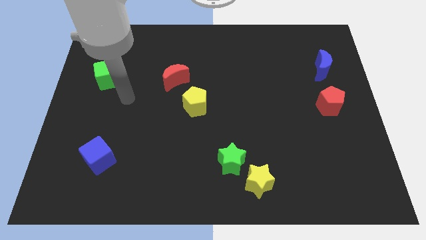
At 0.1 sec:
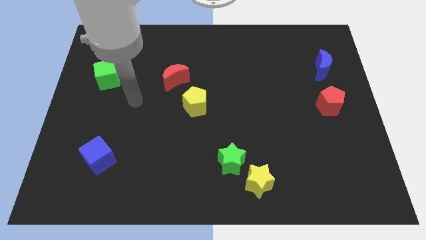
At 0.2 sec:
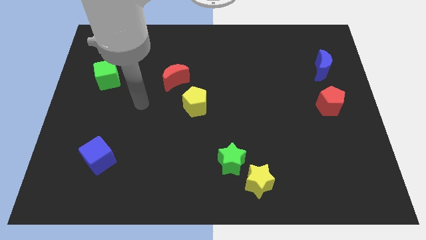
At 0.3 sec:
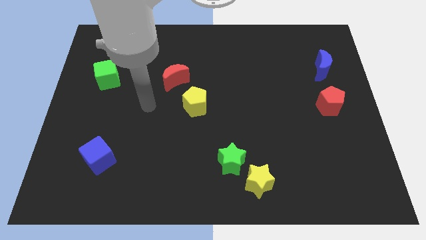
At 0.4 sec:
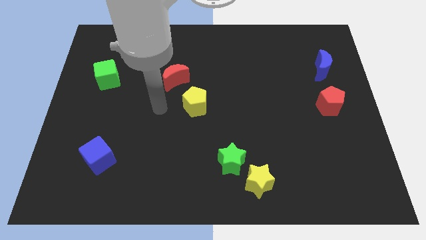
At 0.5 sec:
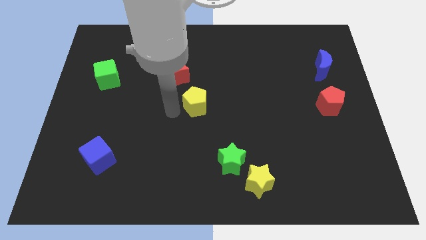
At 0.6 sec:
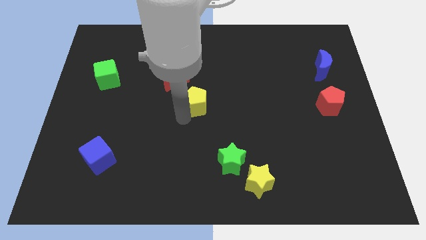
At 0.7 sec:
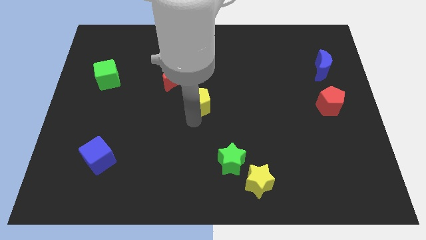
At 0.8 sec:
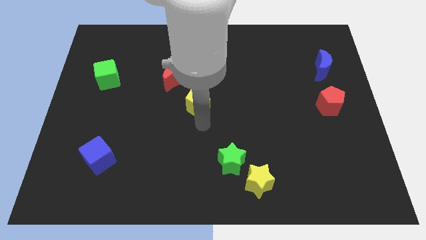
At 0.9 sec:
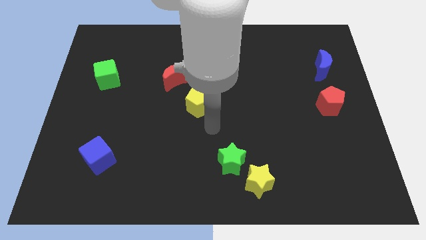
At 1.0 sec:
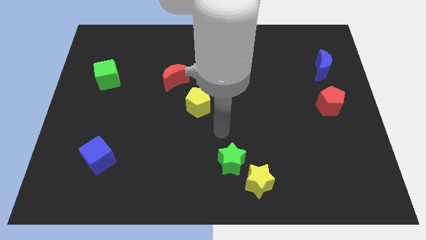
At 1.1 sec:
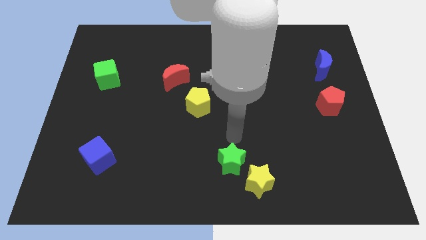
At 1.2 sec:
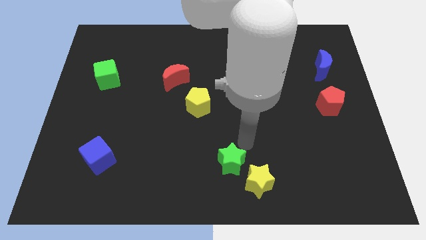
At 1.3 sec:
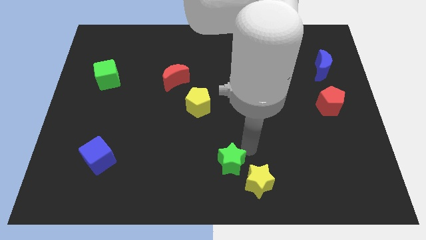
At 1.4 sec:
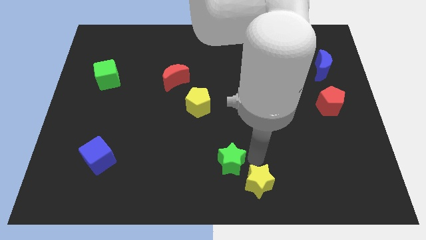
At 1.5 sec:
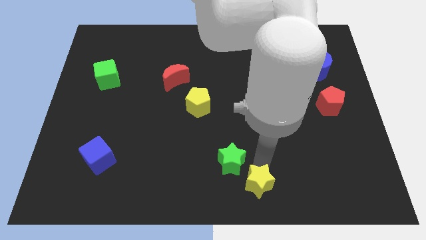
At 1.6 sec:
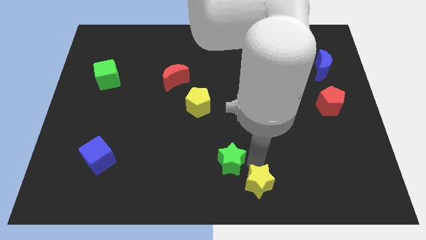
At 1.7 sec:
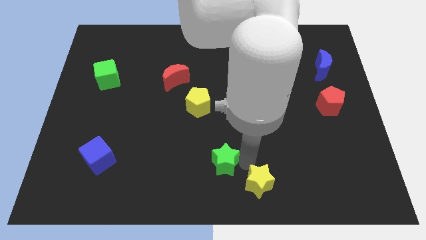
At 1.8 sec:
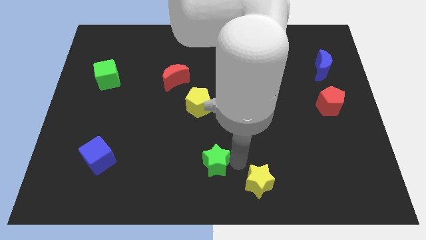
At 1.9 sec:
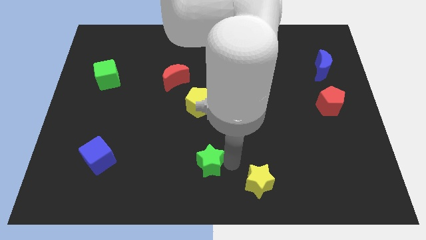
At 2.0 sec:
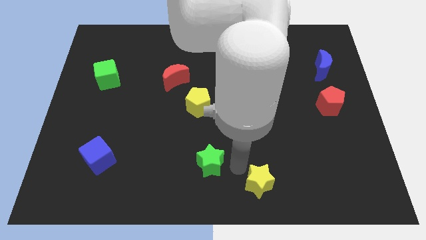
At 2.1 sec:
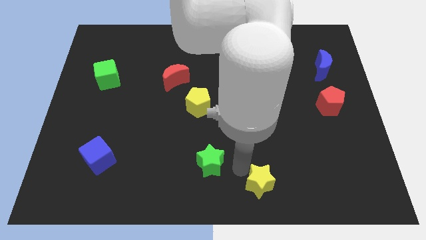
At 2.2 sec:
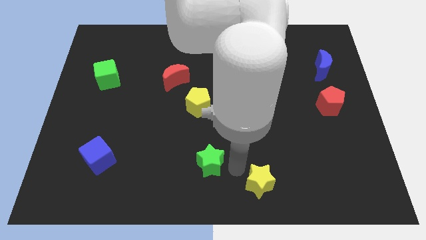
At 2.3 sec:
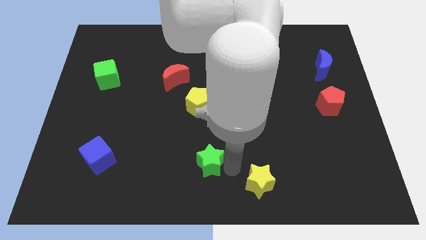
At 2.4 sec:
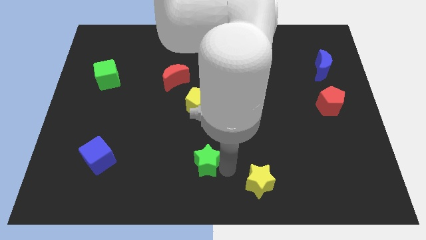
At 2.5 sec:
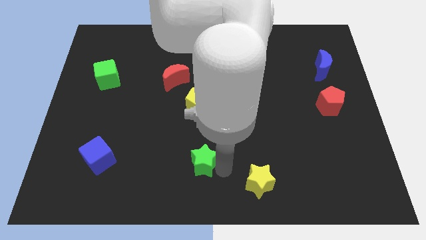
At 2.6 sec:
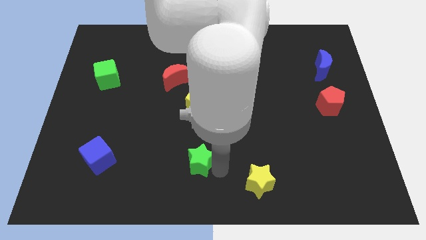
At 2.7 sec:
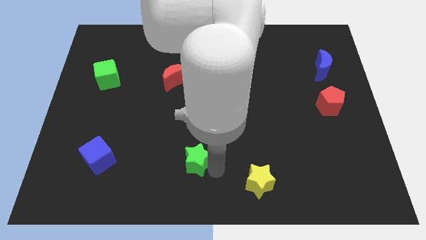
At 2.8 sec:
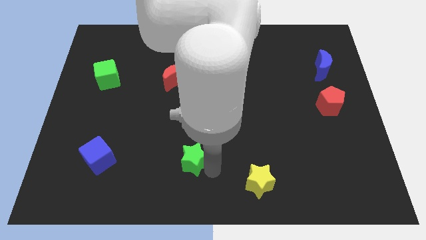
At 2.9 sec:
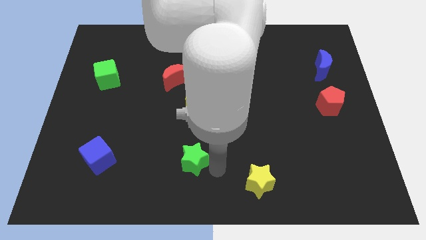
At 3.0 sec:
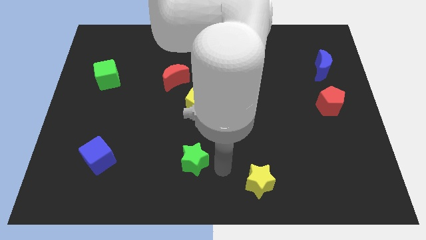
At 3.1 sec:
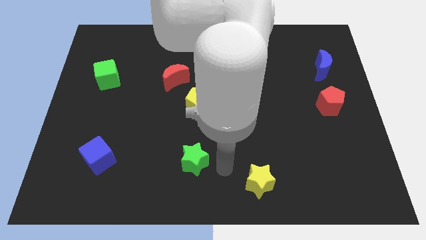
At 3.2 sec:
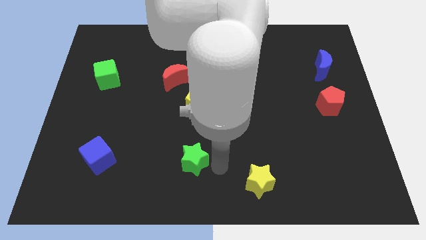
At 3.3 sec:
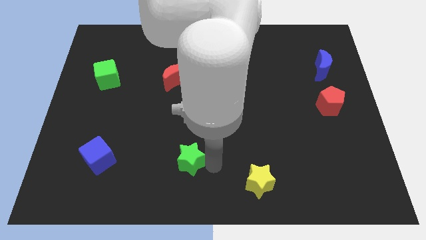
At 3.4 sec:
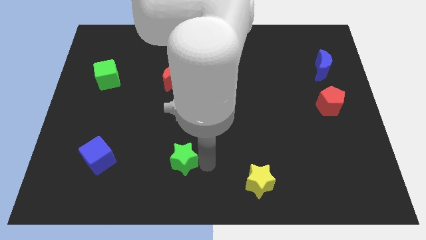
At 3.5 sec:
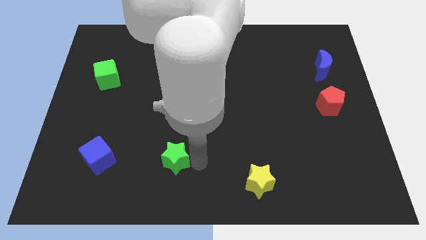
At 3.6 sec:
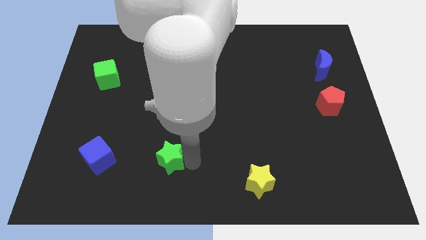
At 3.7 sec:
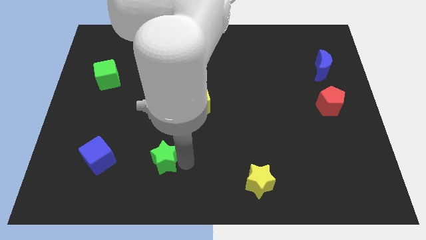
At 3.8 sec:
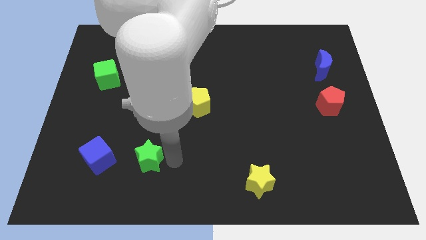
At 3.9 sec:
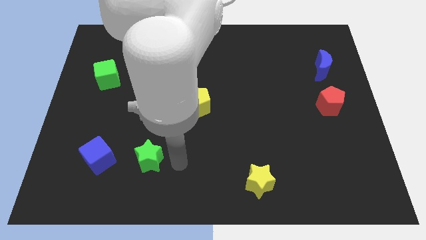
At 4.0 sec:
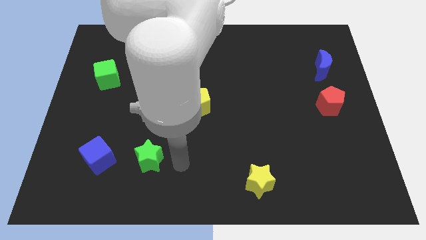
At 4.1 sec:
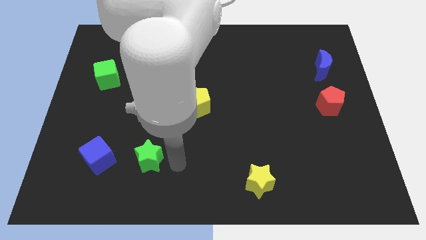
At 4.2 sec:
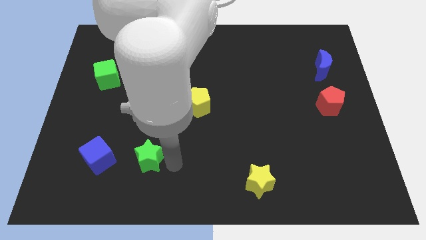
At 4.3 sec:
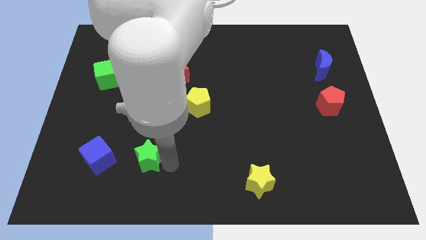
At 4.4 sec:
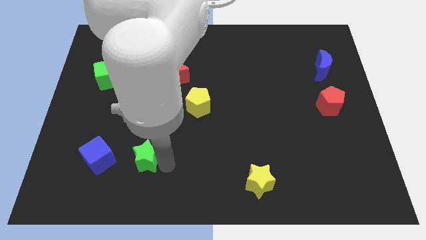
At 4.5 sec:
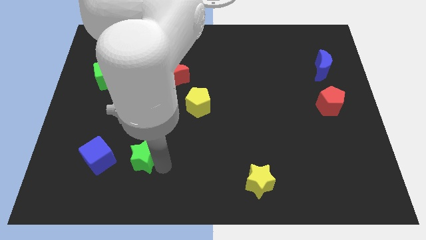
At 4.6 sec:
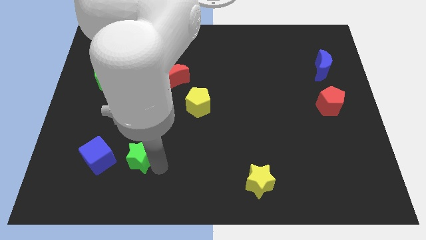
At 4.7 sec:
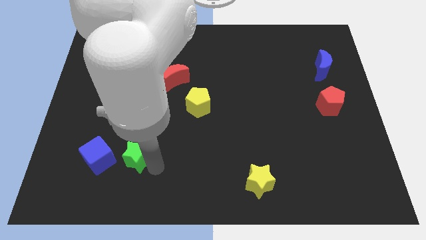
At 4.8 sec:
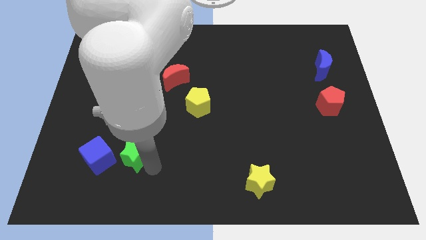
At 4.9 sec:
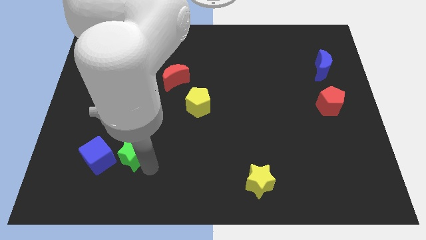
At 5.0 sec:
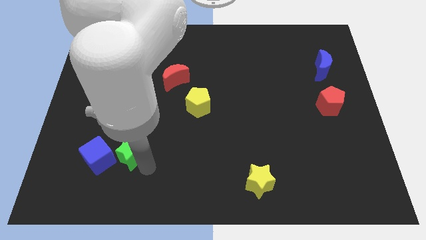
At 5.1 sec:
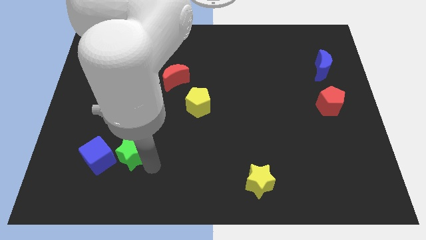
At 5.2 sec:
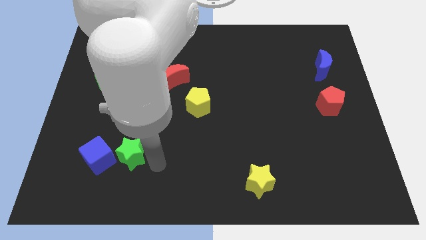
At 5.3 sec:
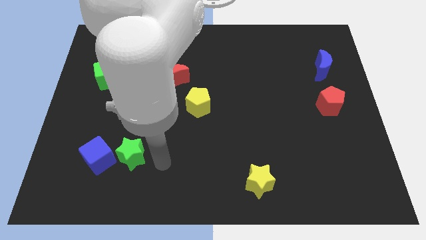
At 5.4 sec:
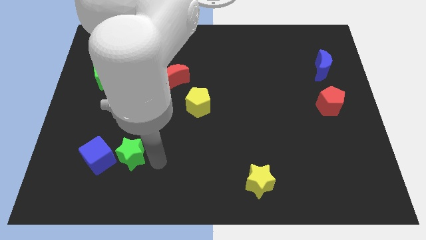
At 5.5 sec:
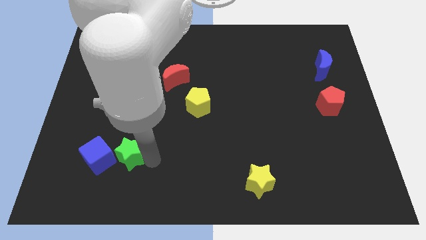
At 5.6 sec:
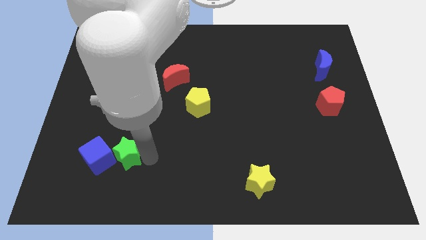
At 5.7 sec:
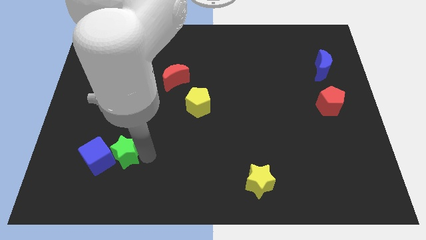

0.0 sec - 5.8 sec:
move the green star towards the blue cube

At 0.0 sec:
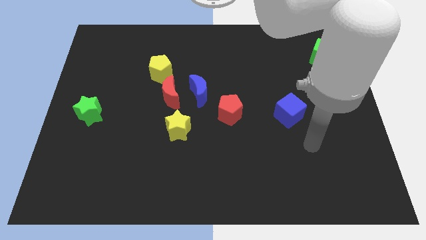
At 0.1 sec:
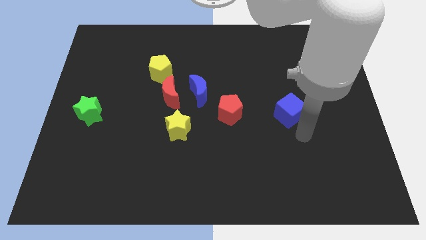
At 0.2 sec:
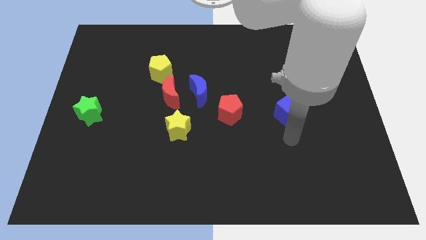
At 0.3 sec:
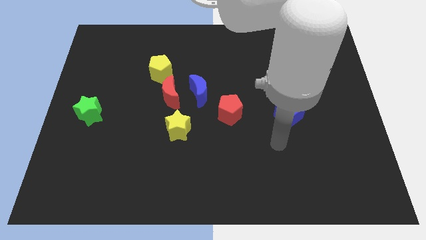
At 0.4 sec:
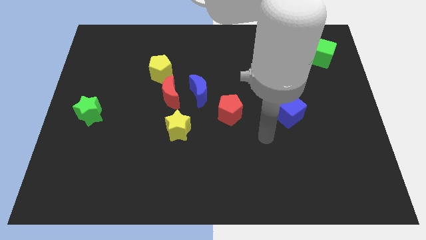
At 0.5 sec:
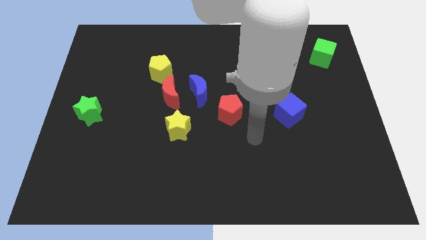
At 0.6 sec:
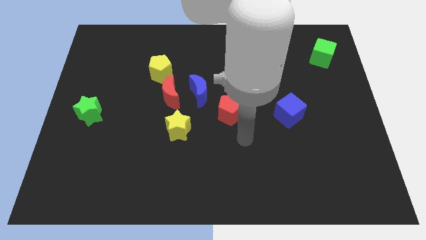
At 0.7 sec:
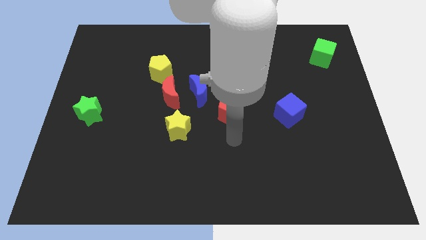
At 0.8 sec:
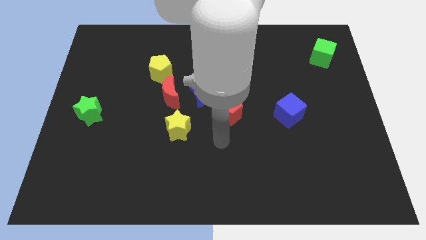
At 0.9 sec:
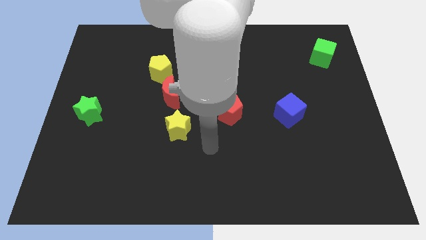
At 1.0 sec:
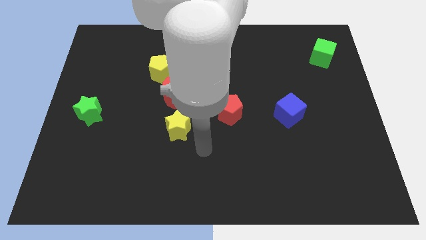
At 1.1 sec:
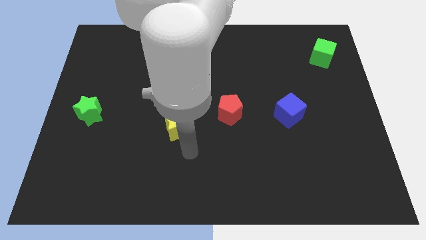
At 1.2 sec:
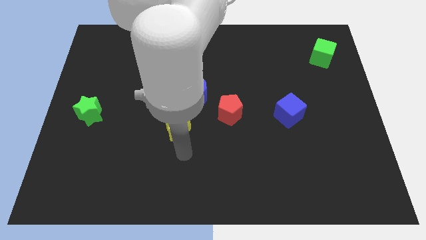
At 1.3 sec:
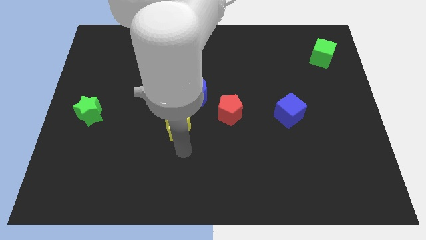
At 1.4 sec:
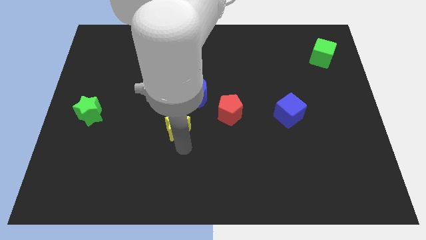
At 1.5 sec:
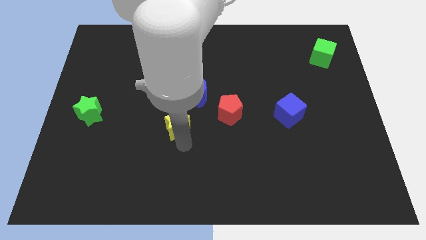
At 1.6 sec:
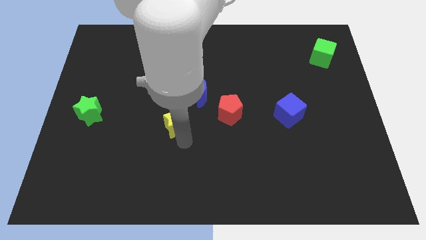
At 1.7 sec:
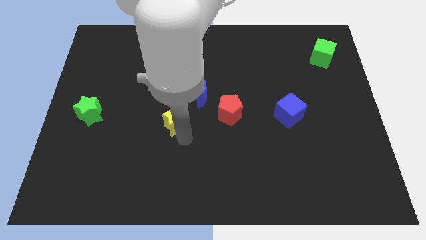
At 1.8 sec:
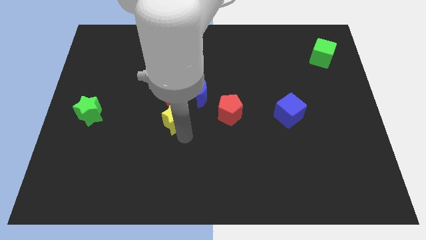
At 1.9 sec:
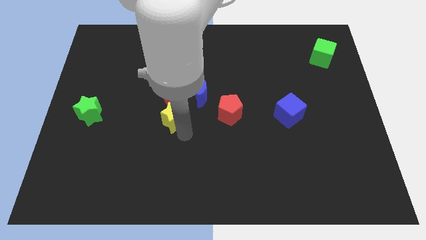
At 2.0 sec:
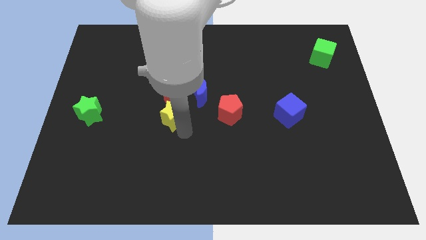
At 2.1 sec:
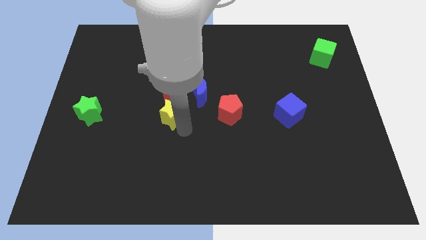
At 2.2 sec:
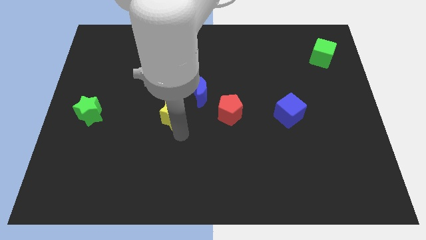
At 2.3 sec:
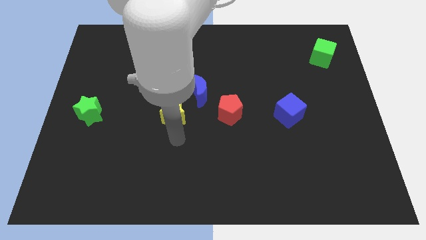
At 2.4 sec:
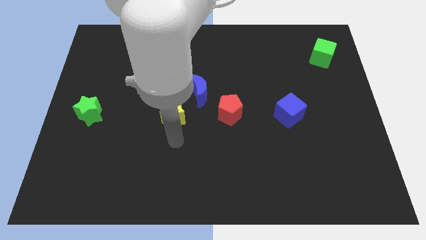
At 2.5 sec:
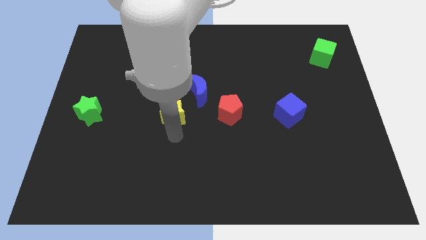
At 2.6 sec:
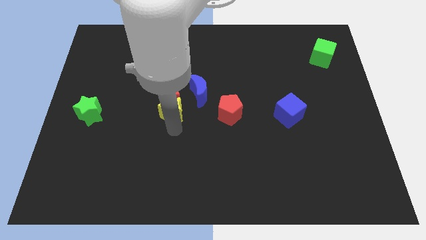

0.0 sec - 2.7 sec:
push the yellow star towards the red moon
